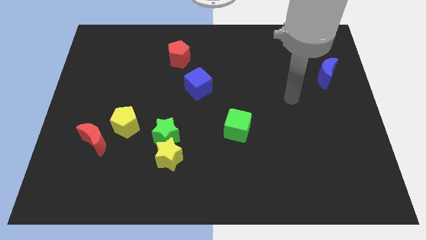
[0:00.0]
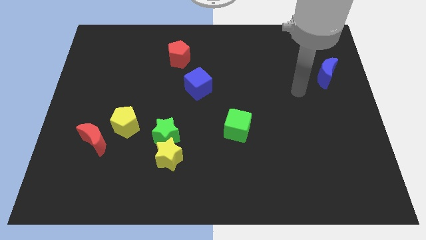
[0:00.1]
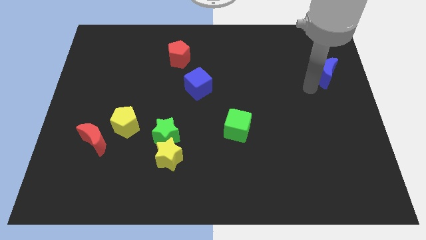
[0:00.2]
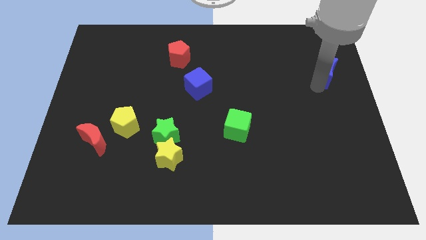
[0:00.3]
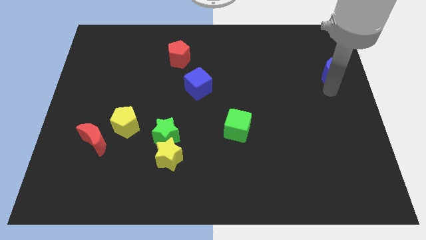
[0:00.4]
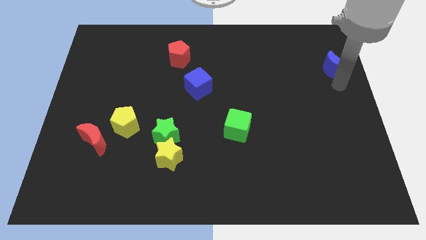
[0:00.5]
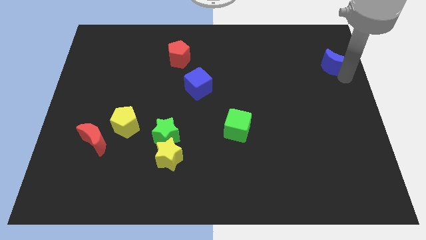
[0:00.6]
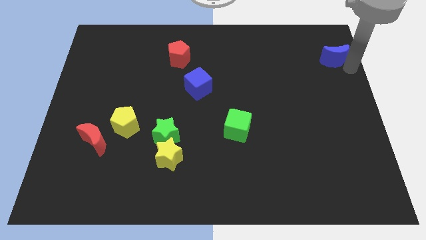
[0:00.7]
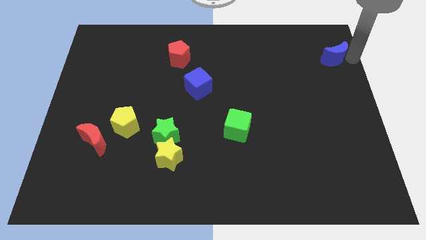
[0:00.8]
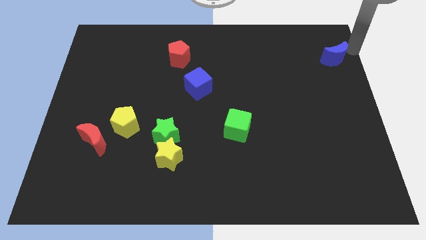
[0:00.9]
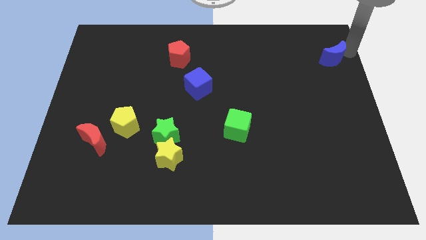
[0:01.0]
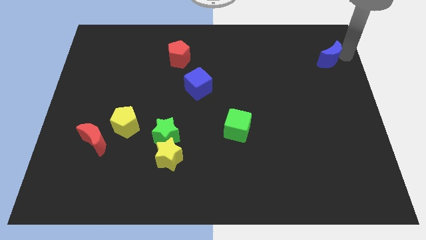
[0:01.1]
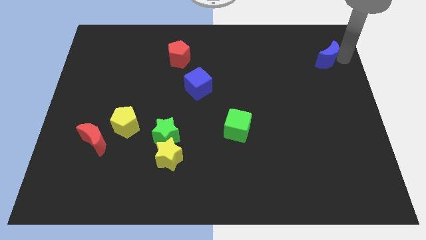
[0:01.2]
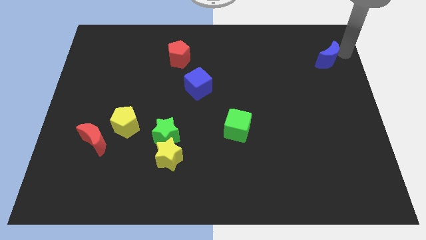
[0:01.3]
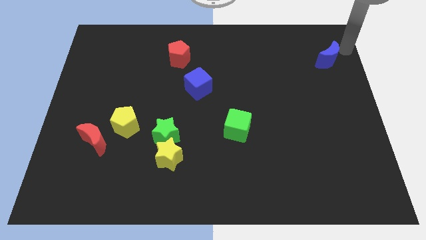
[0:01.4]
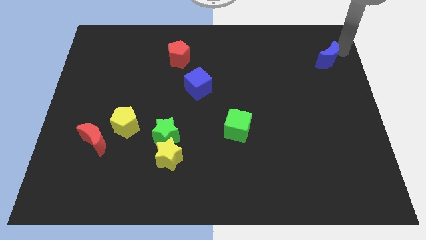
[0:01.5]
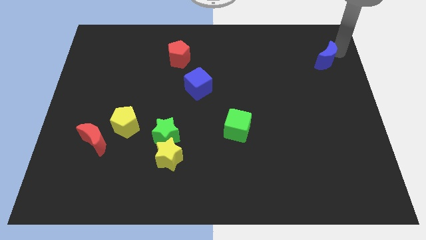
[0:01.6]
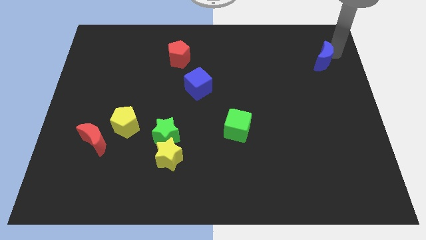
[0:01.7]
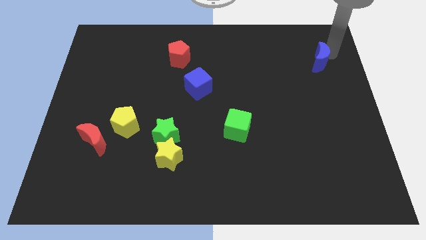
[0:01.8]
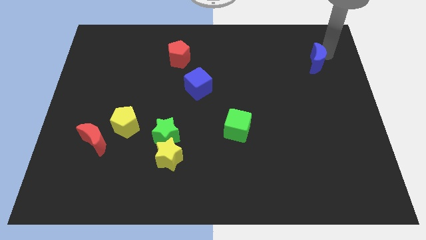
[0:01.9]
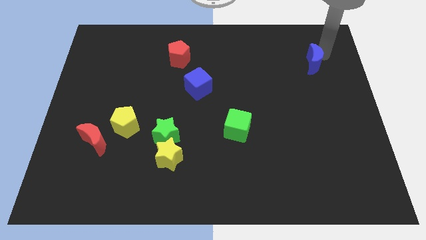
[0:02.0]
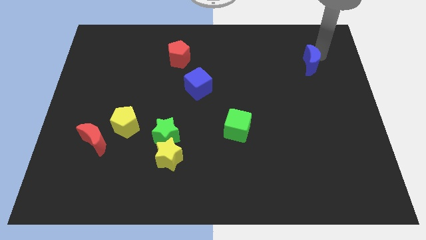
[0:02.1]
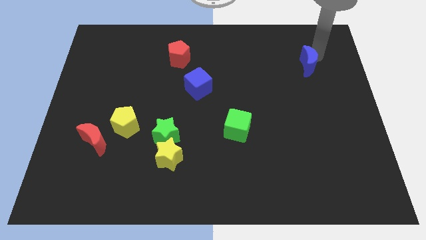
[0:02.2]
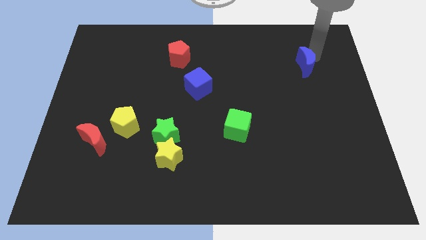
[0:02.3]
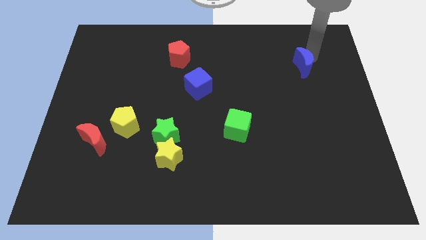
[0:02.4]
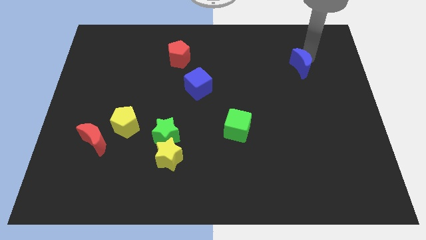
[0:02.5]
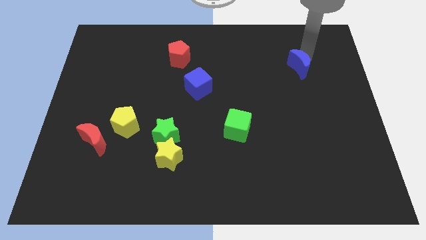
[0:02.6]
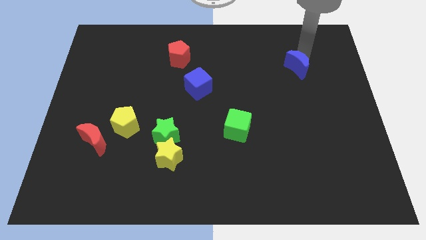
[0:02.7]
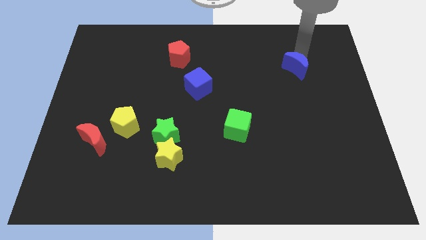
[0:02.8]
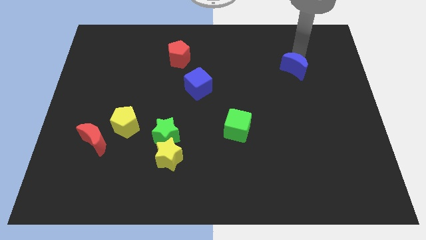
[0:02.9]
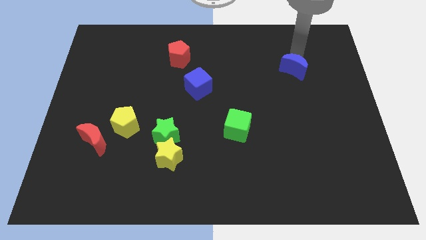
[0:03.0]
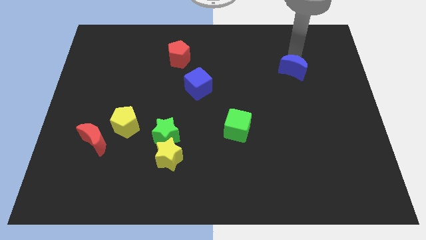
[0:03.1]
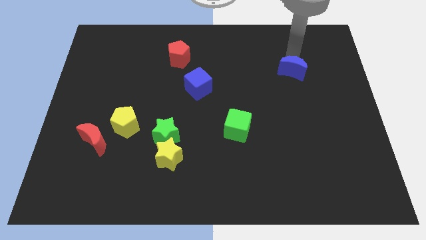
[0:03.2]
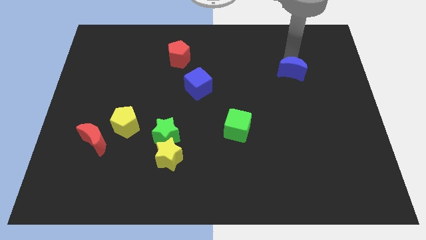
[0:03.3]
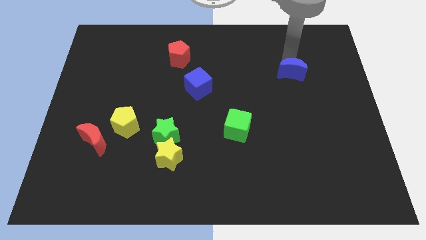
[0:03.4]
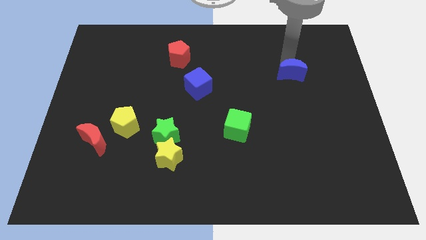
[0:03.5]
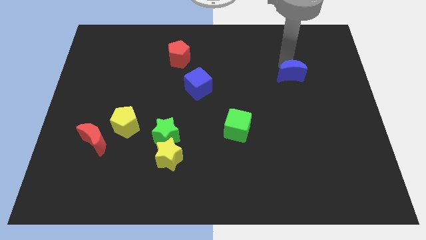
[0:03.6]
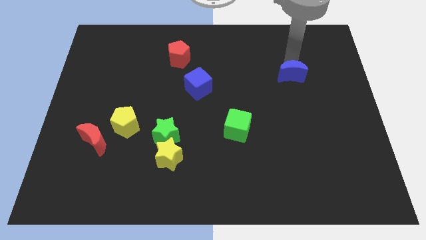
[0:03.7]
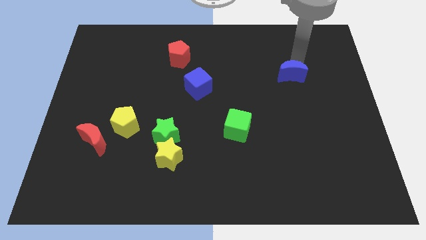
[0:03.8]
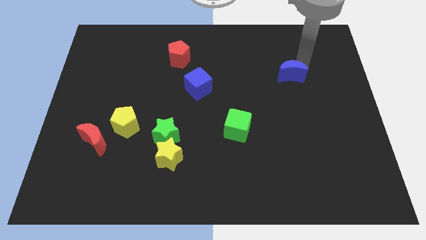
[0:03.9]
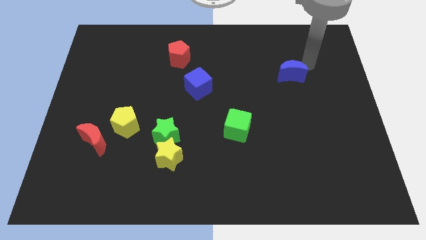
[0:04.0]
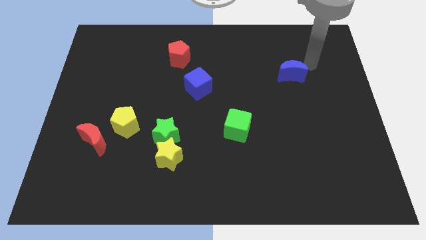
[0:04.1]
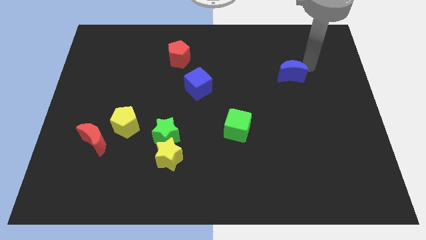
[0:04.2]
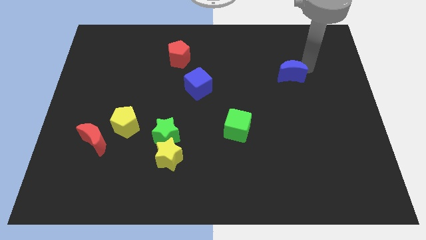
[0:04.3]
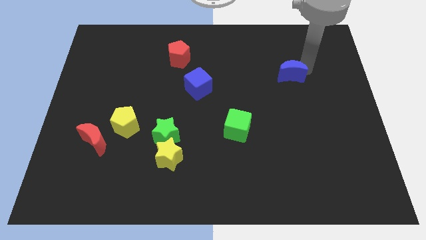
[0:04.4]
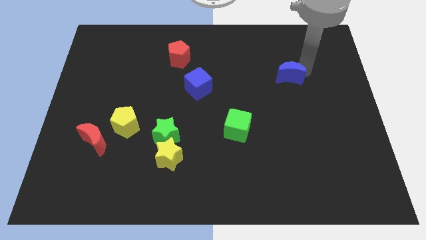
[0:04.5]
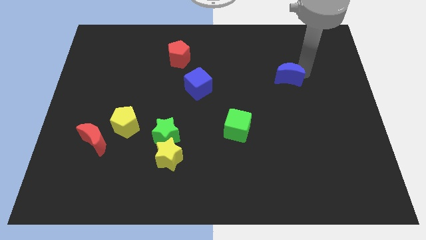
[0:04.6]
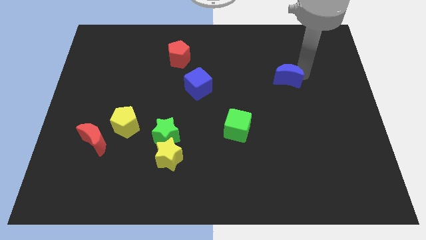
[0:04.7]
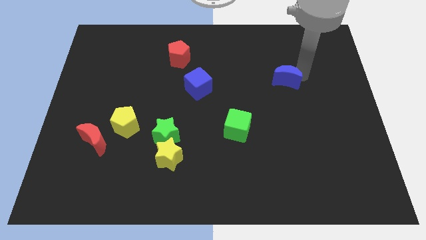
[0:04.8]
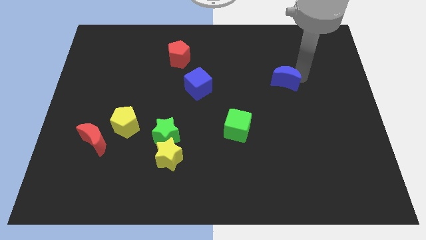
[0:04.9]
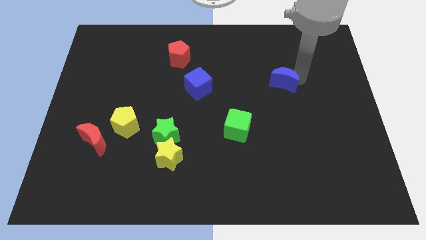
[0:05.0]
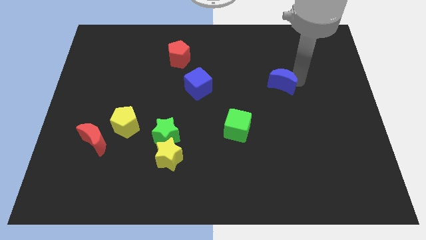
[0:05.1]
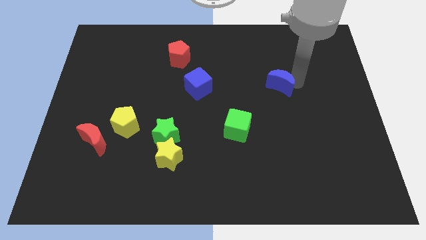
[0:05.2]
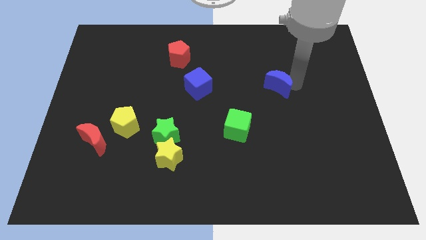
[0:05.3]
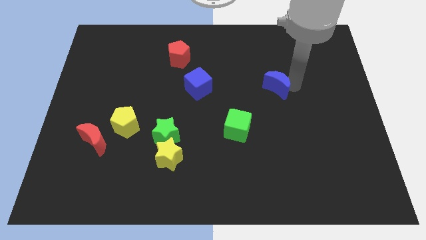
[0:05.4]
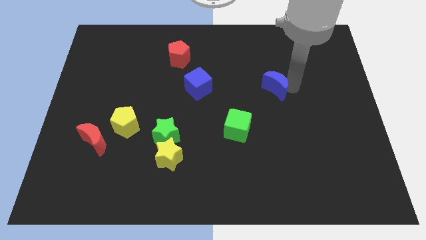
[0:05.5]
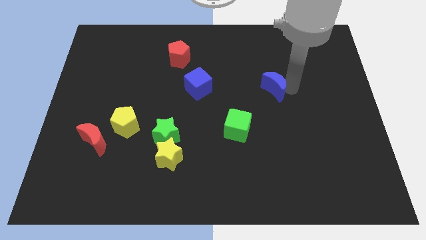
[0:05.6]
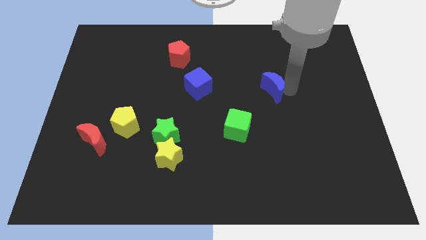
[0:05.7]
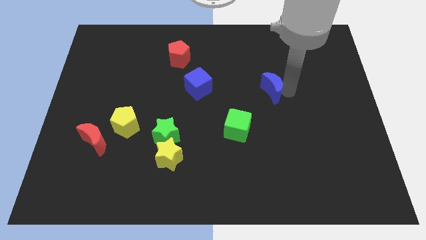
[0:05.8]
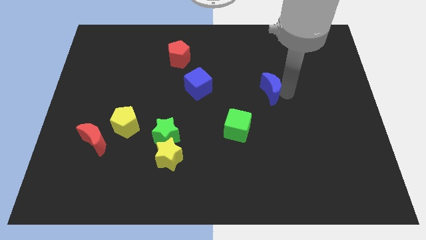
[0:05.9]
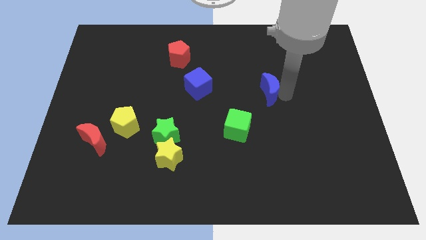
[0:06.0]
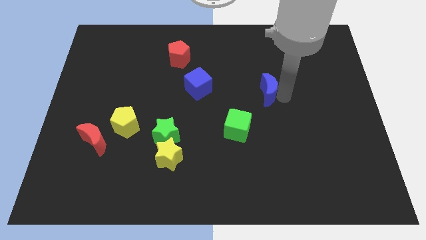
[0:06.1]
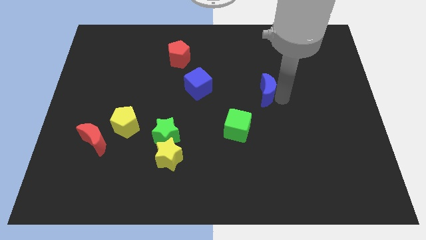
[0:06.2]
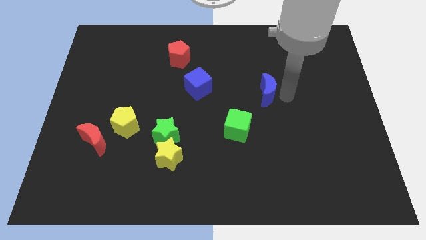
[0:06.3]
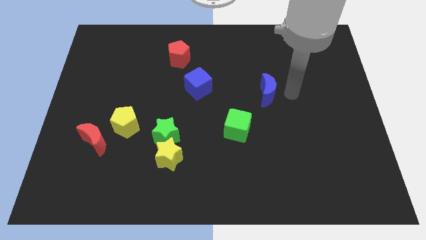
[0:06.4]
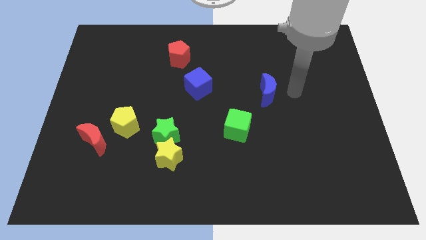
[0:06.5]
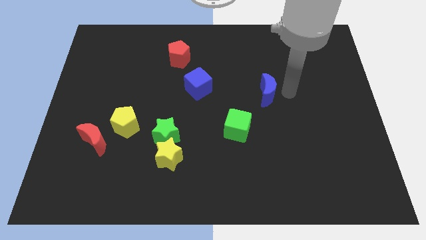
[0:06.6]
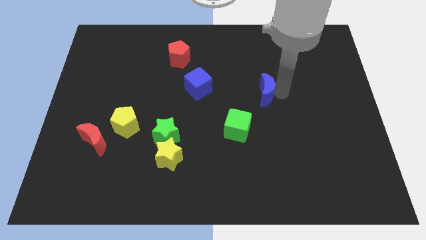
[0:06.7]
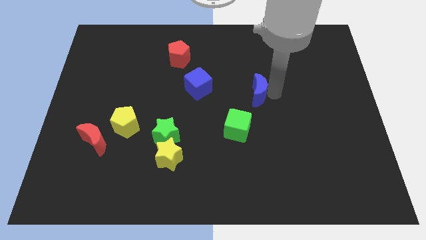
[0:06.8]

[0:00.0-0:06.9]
slide the blue moon to the middle of the board

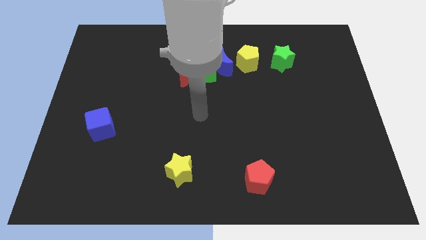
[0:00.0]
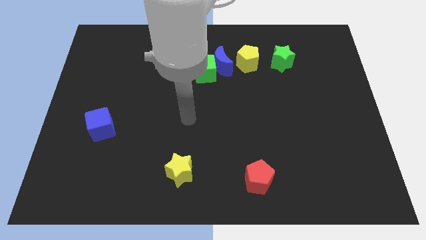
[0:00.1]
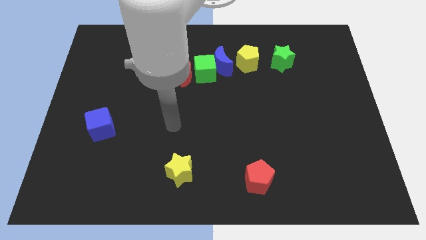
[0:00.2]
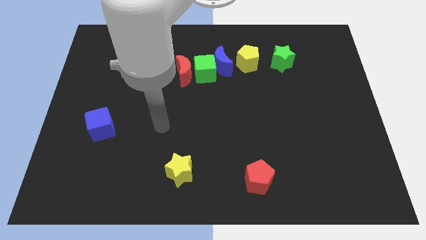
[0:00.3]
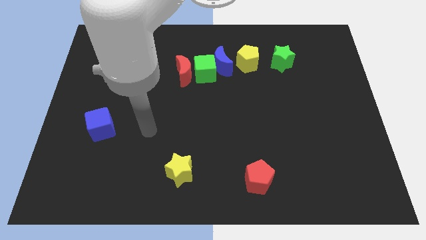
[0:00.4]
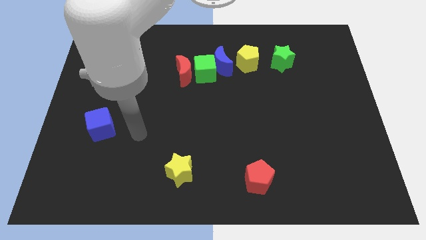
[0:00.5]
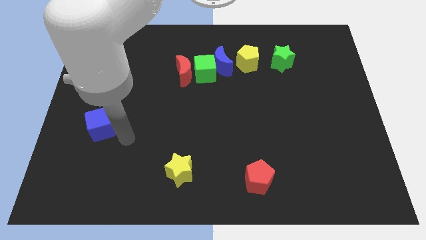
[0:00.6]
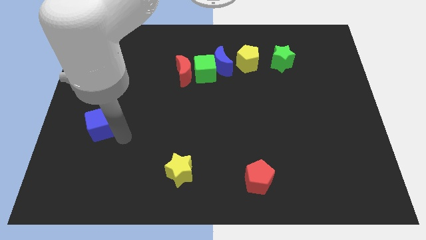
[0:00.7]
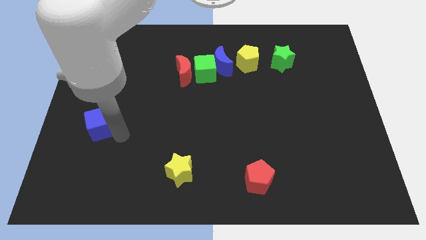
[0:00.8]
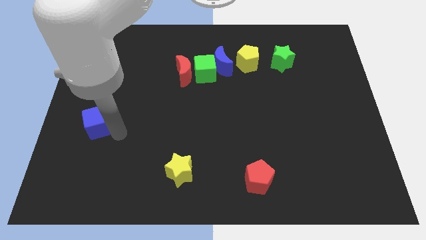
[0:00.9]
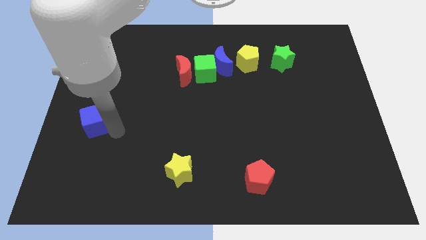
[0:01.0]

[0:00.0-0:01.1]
push the blue cube to the left side
